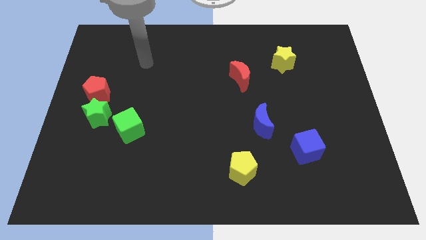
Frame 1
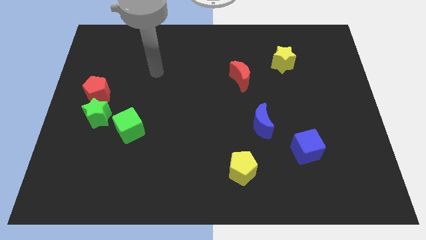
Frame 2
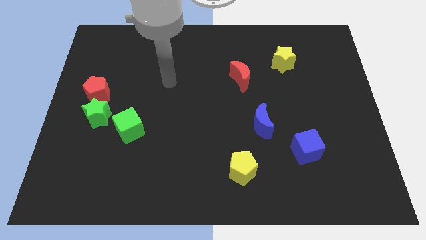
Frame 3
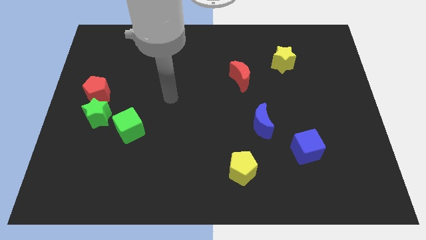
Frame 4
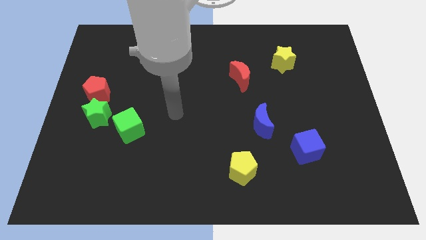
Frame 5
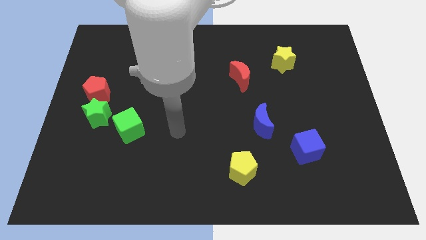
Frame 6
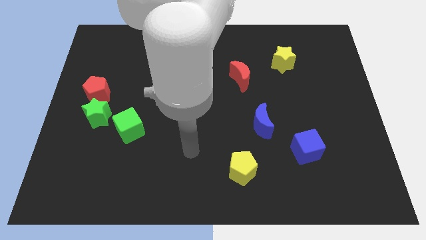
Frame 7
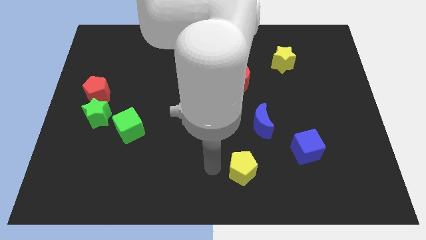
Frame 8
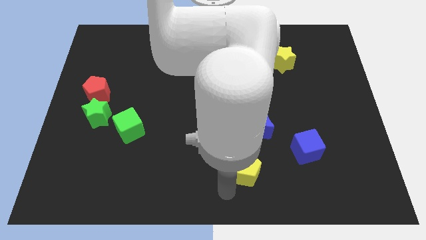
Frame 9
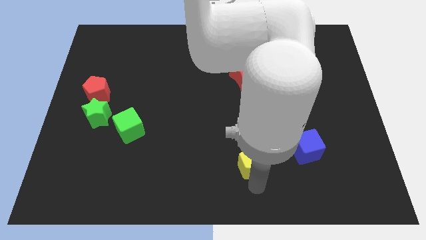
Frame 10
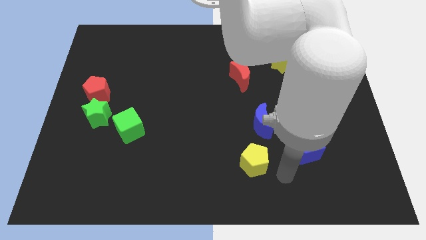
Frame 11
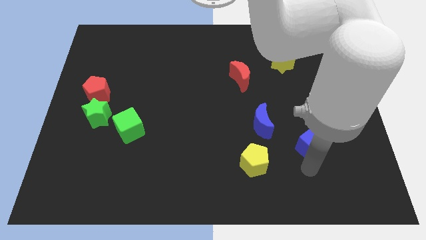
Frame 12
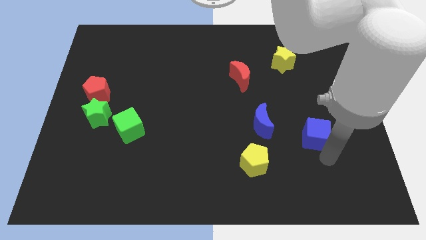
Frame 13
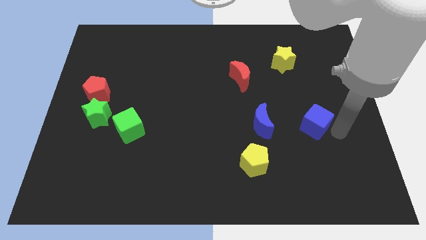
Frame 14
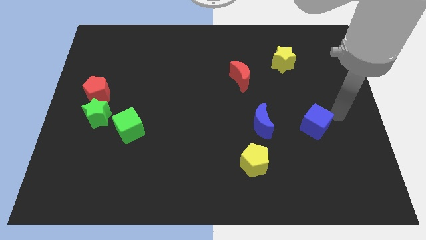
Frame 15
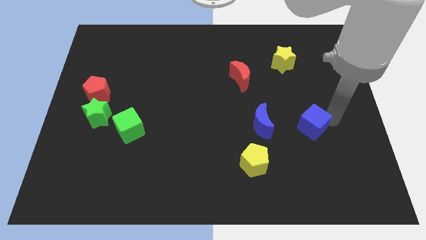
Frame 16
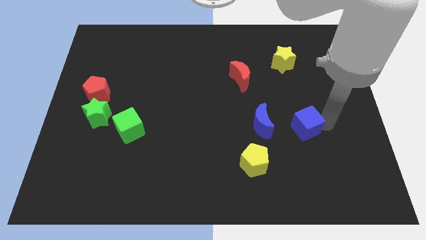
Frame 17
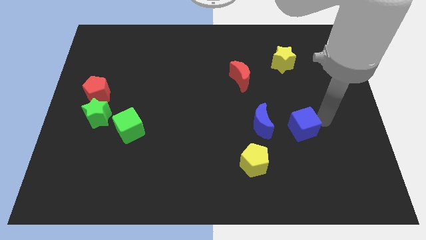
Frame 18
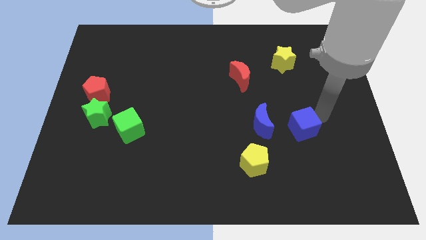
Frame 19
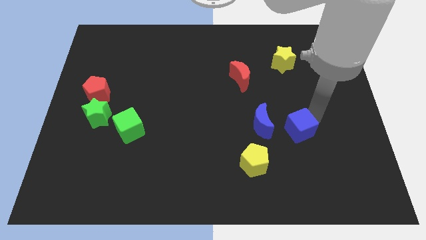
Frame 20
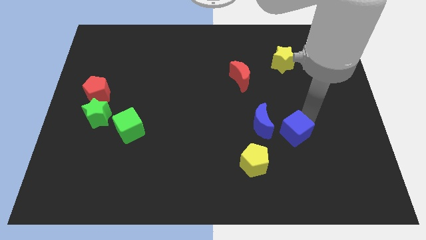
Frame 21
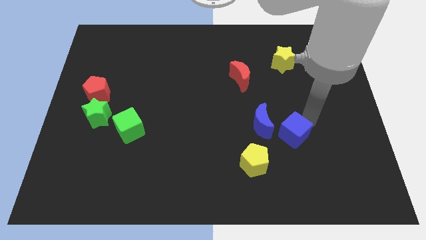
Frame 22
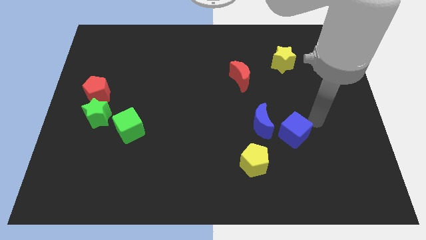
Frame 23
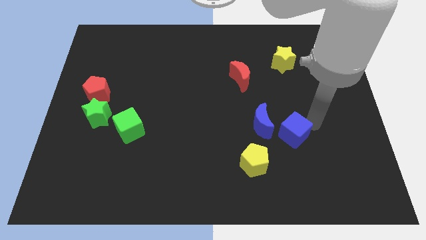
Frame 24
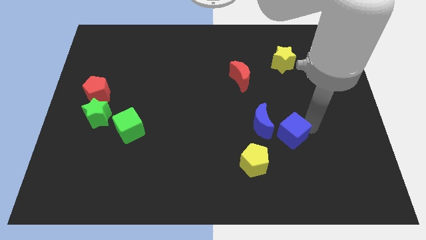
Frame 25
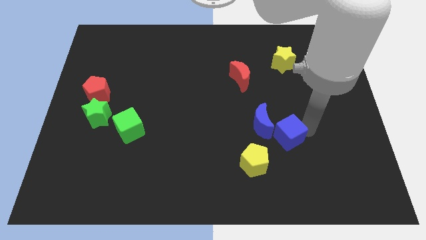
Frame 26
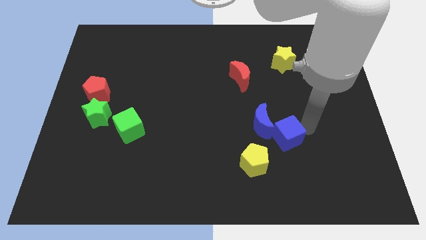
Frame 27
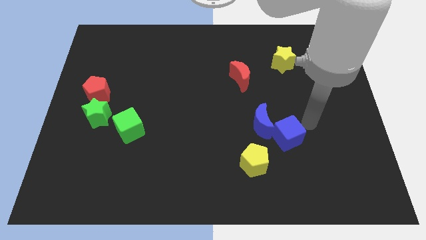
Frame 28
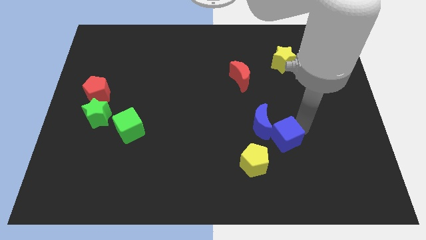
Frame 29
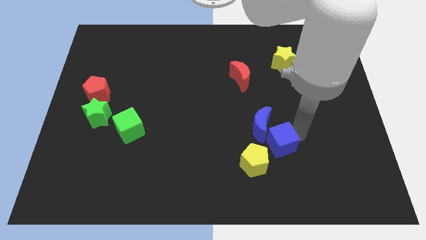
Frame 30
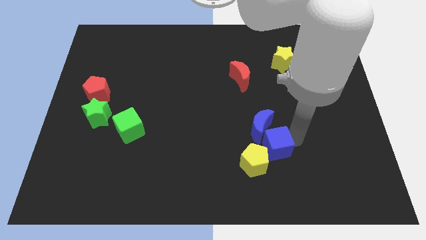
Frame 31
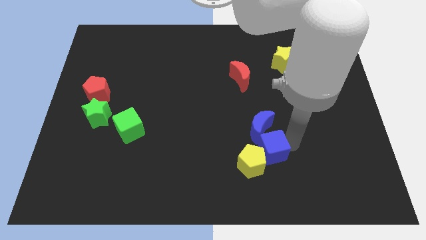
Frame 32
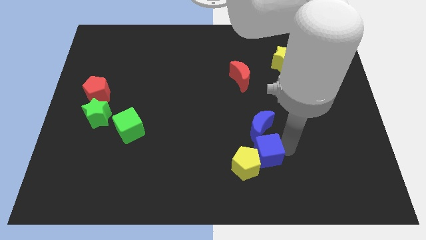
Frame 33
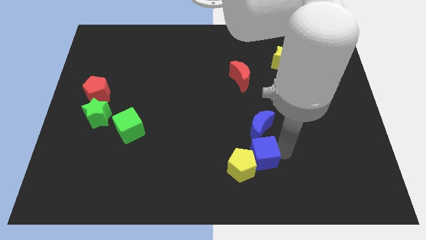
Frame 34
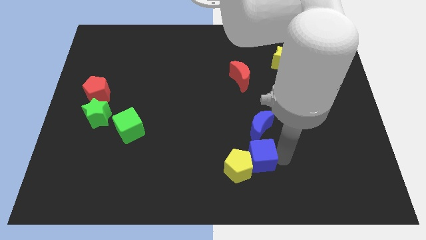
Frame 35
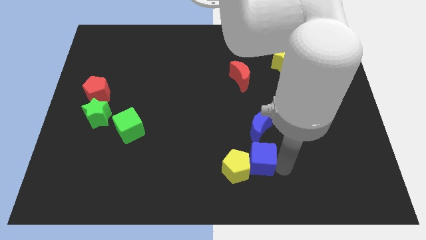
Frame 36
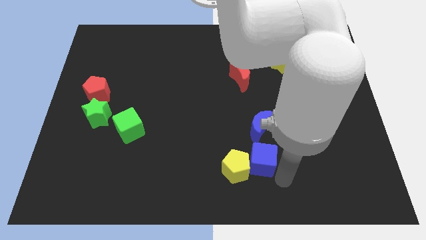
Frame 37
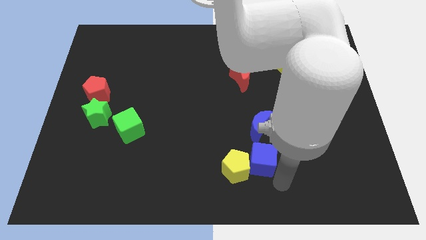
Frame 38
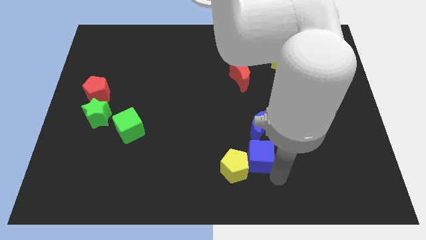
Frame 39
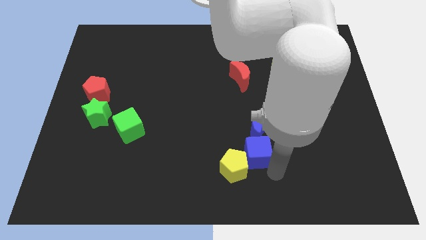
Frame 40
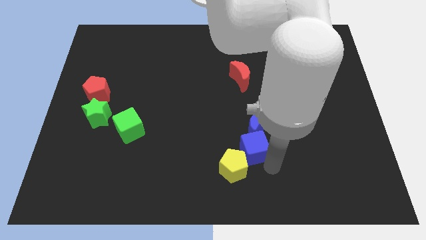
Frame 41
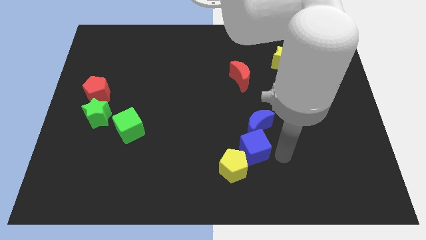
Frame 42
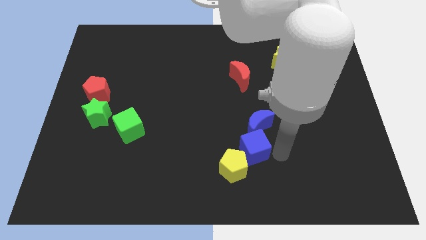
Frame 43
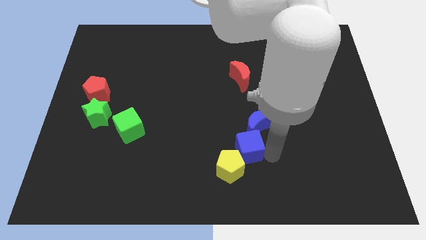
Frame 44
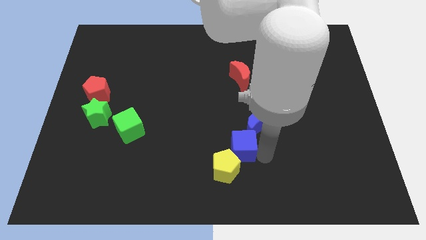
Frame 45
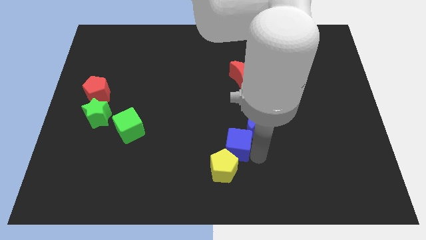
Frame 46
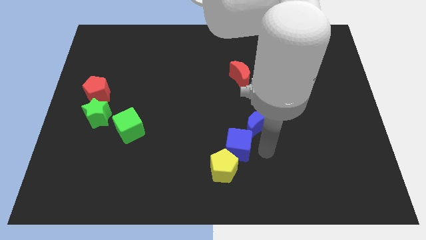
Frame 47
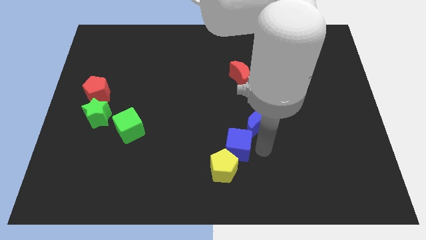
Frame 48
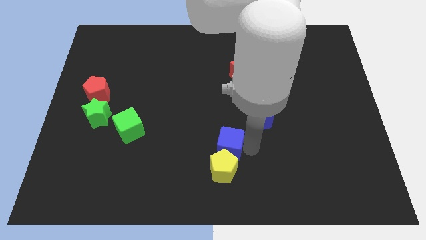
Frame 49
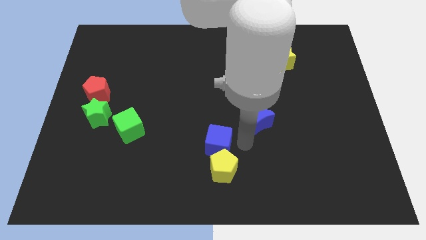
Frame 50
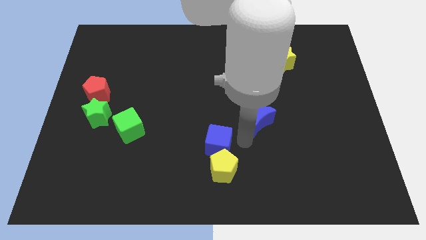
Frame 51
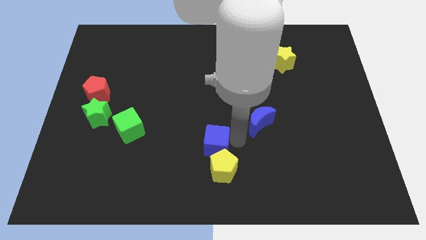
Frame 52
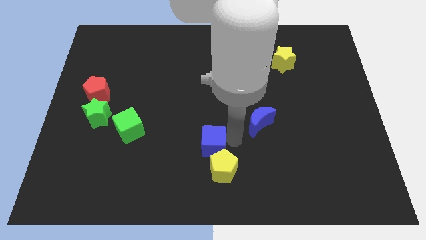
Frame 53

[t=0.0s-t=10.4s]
move the blue cube left

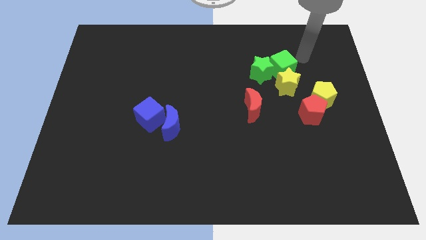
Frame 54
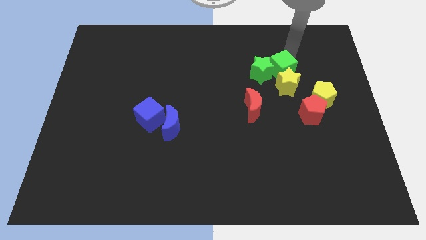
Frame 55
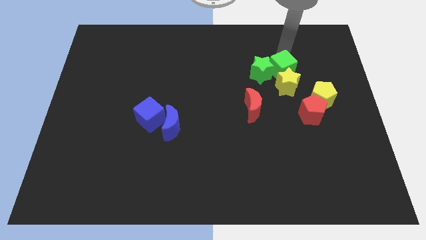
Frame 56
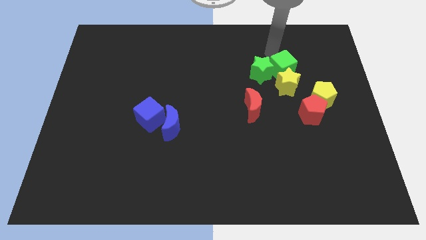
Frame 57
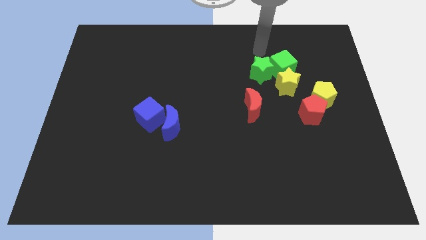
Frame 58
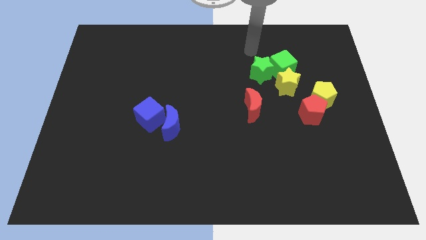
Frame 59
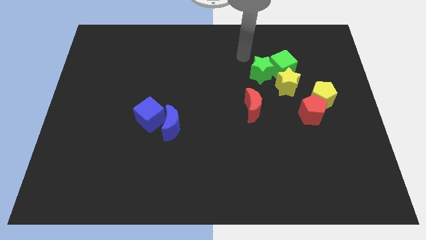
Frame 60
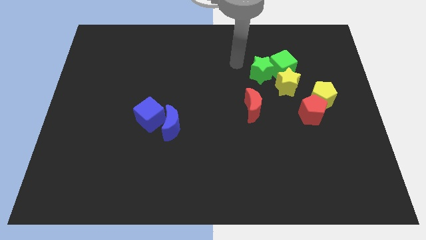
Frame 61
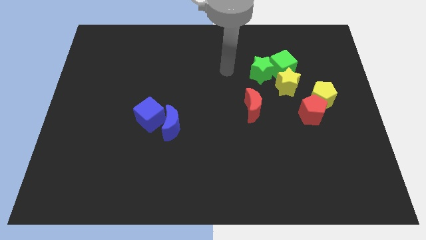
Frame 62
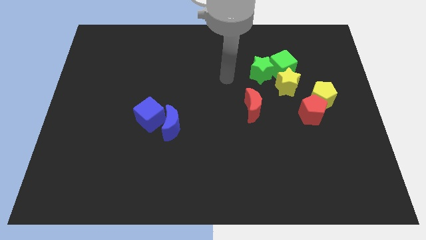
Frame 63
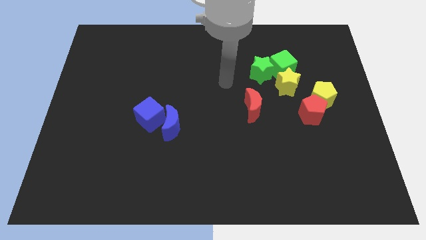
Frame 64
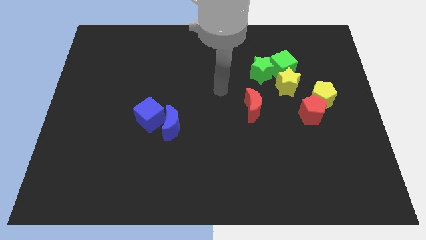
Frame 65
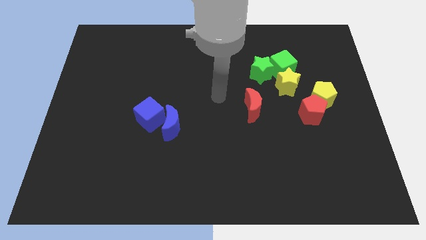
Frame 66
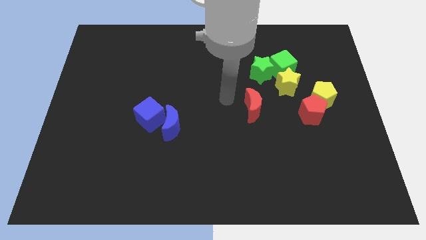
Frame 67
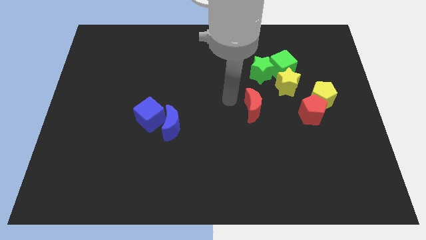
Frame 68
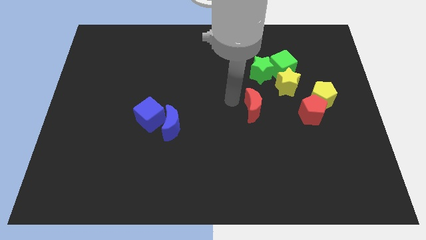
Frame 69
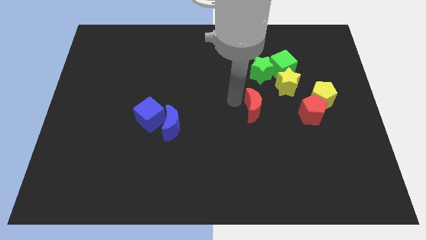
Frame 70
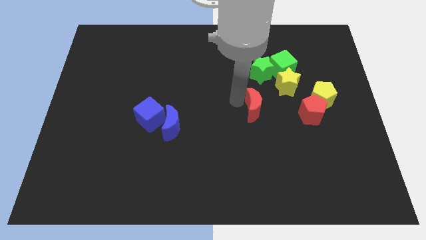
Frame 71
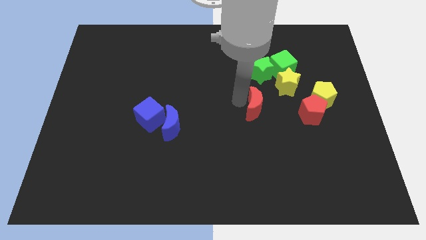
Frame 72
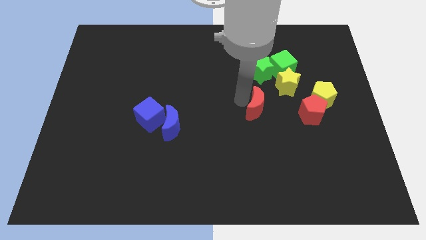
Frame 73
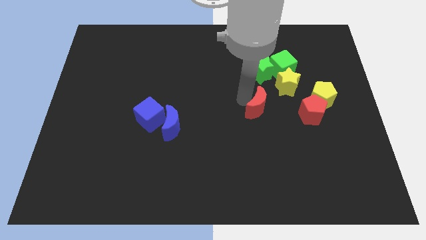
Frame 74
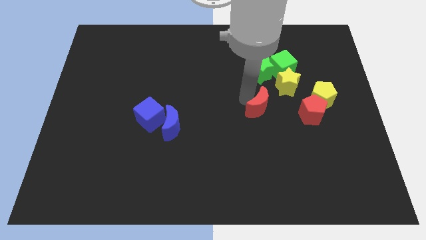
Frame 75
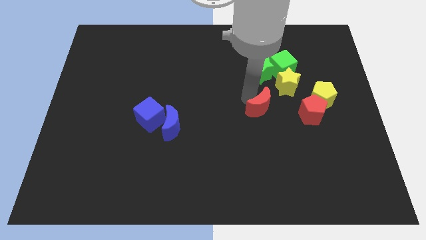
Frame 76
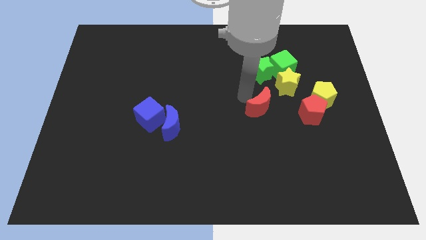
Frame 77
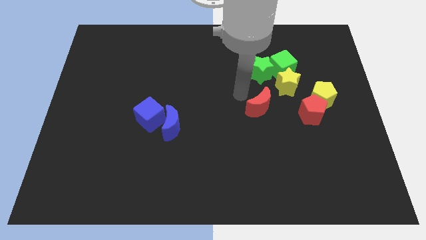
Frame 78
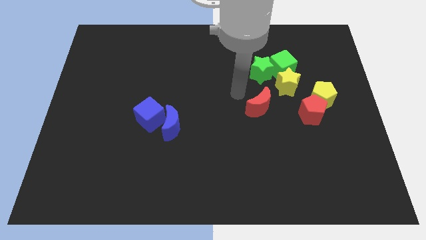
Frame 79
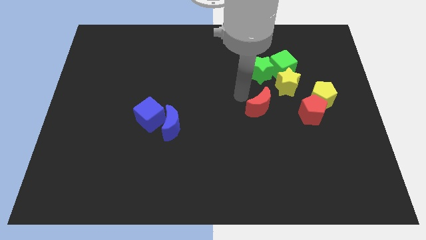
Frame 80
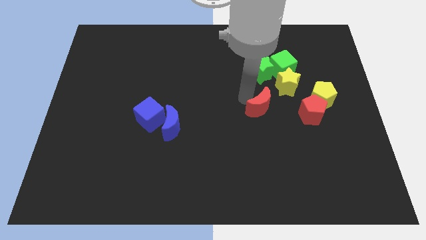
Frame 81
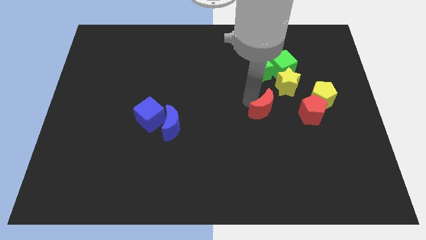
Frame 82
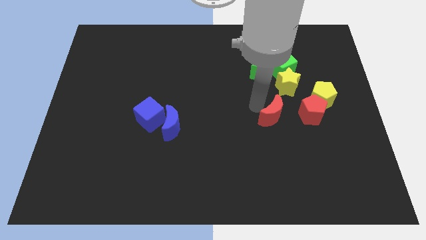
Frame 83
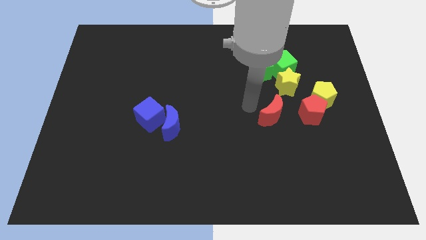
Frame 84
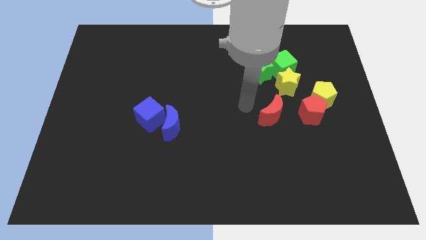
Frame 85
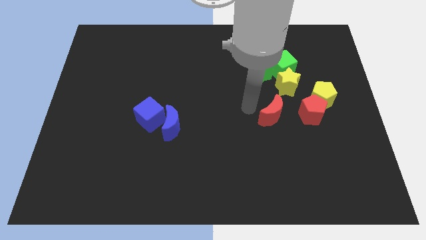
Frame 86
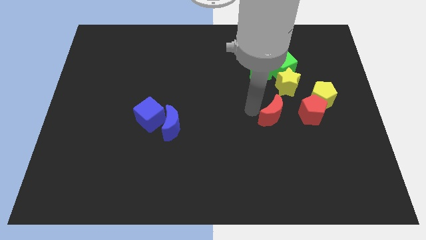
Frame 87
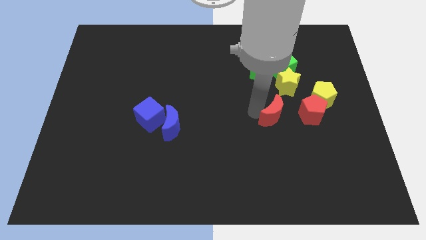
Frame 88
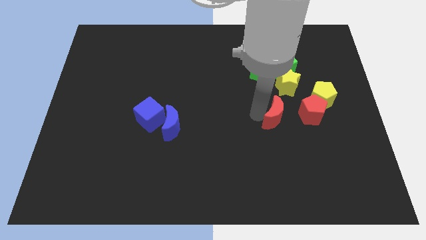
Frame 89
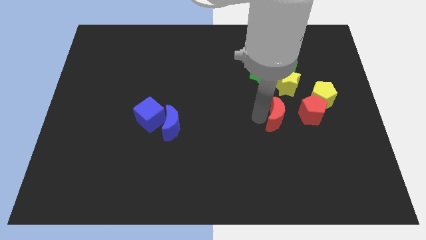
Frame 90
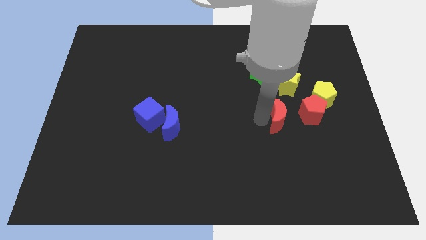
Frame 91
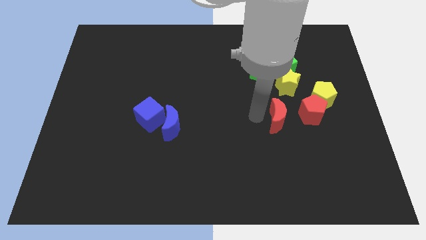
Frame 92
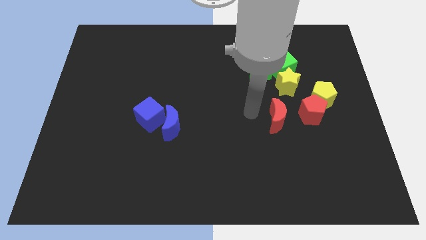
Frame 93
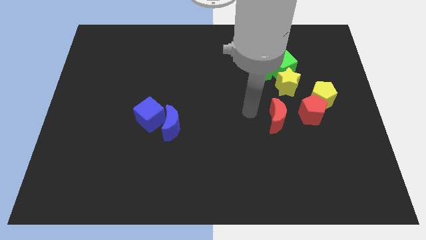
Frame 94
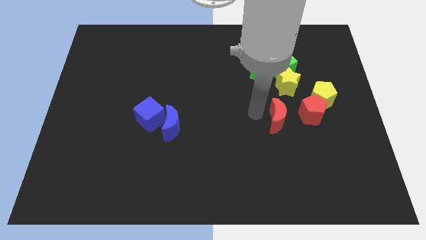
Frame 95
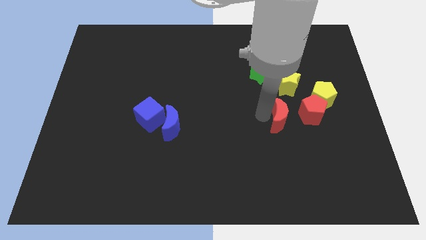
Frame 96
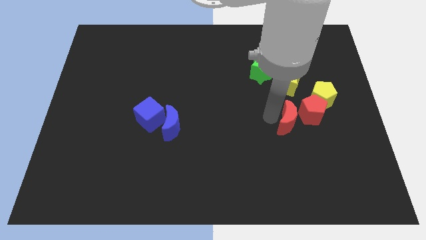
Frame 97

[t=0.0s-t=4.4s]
slightly slide the red moon to the right
